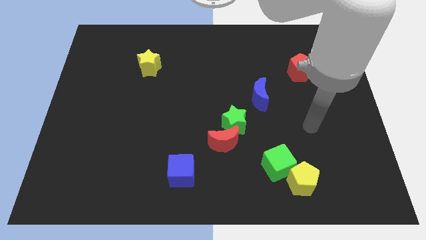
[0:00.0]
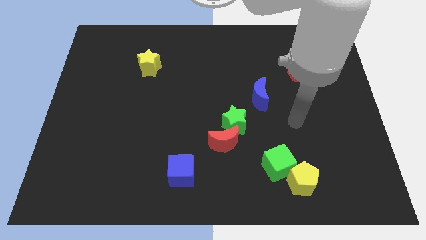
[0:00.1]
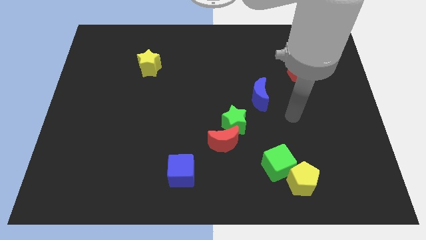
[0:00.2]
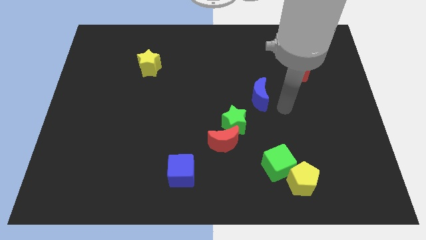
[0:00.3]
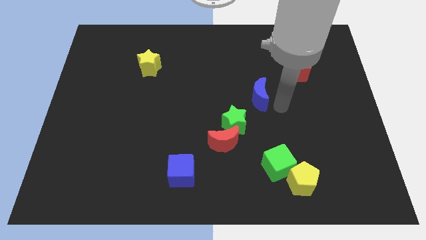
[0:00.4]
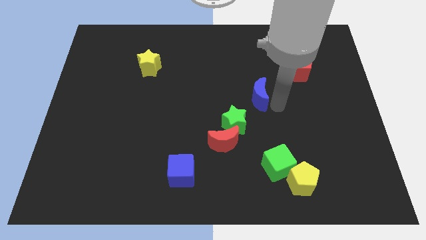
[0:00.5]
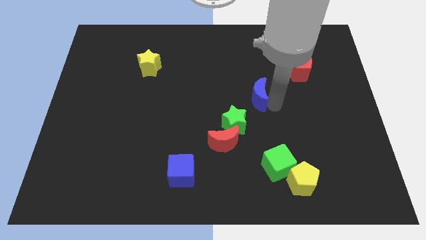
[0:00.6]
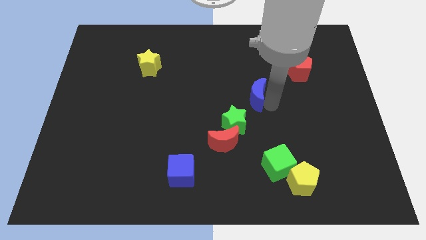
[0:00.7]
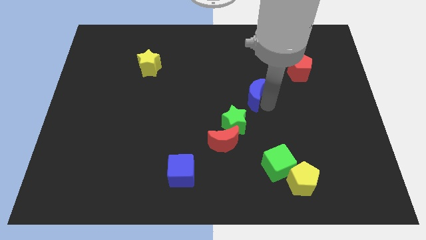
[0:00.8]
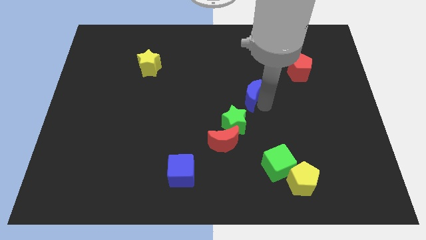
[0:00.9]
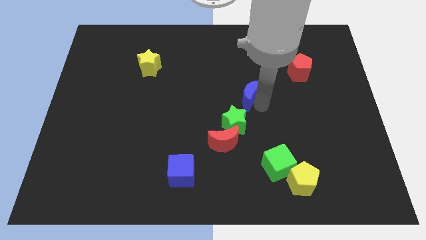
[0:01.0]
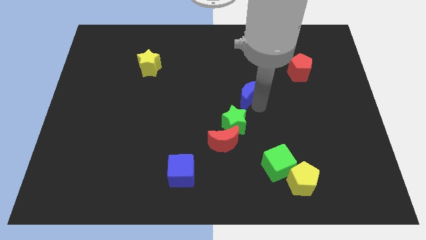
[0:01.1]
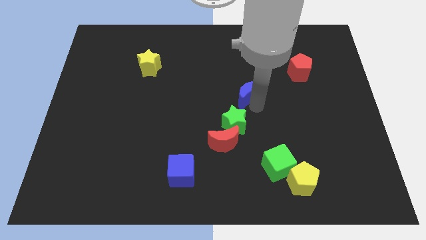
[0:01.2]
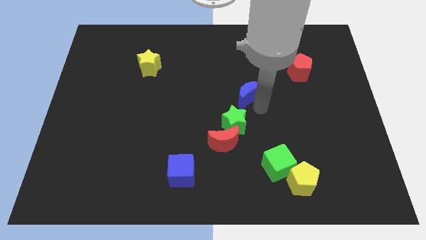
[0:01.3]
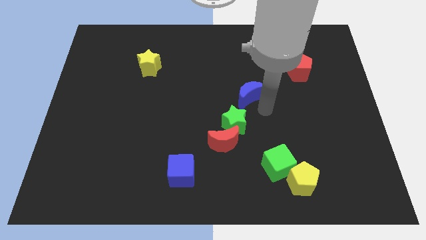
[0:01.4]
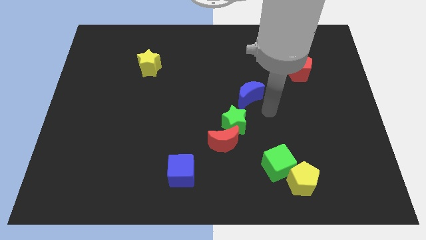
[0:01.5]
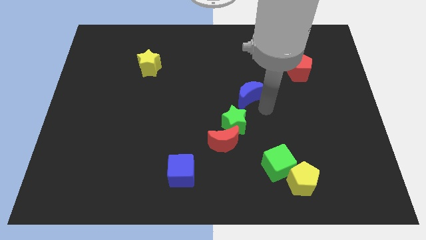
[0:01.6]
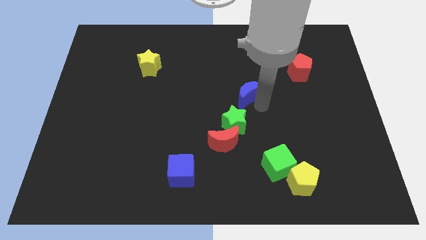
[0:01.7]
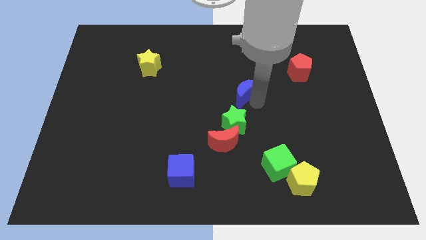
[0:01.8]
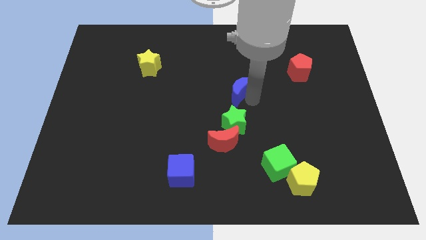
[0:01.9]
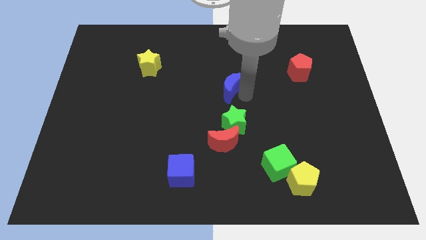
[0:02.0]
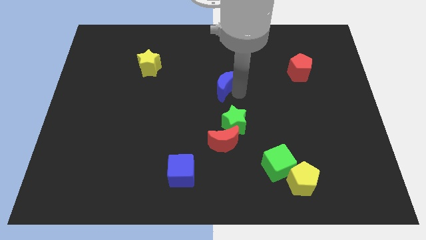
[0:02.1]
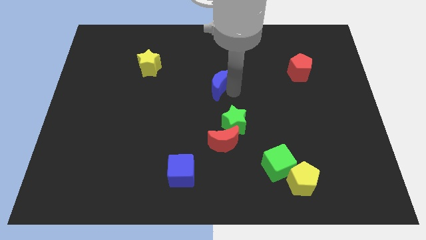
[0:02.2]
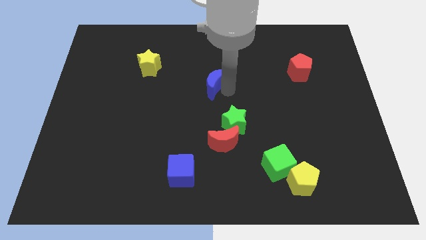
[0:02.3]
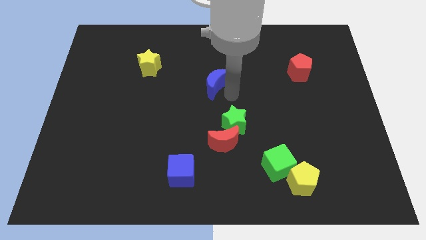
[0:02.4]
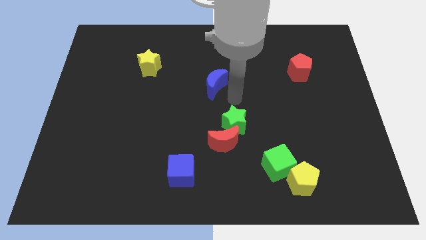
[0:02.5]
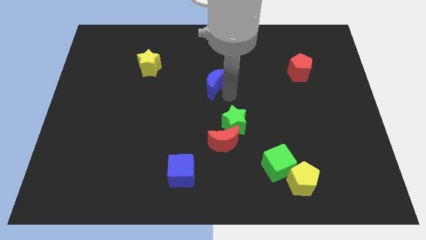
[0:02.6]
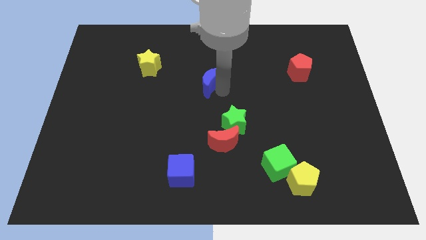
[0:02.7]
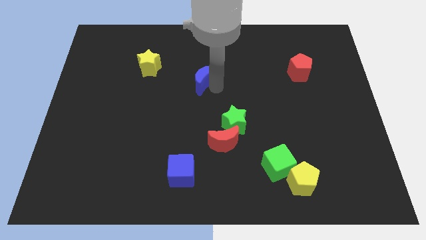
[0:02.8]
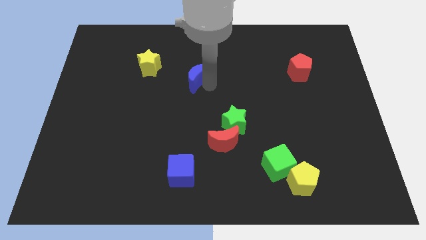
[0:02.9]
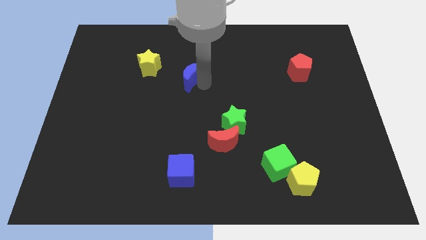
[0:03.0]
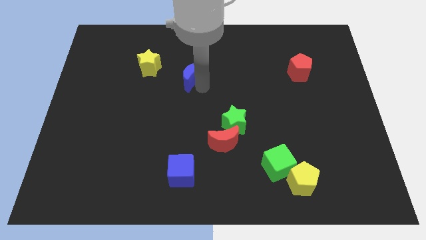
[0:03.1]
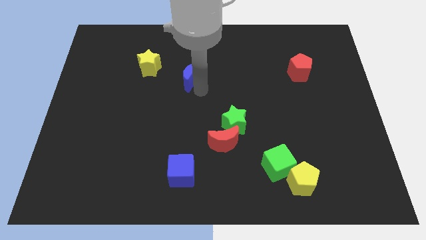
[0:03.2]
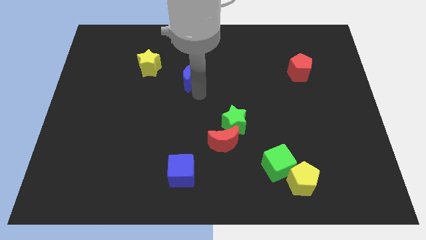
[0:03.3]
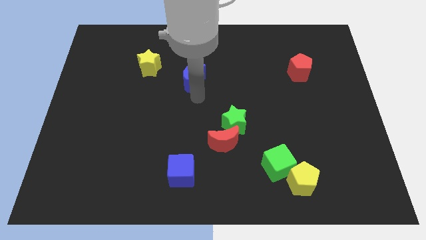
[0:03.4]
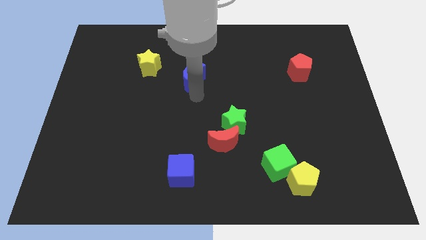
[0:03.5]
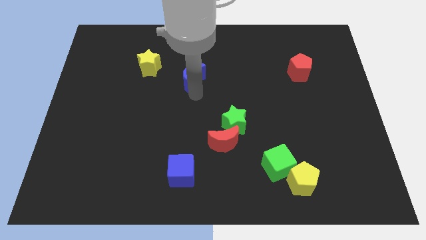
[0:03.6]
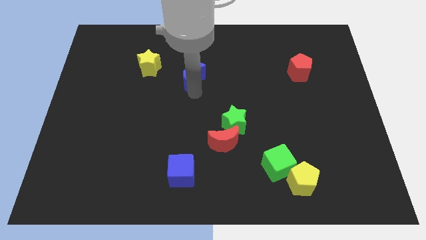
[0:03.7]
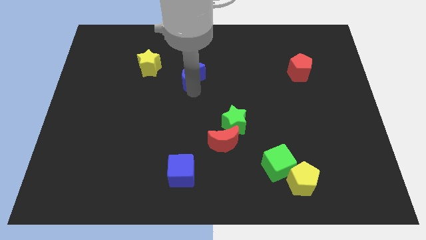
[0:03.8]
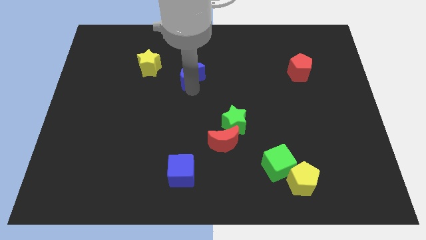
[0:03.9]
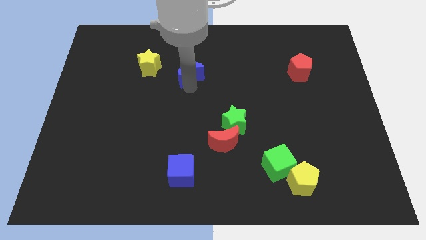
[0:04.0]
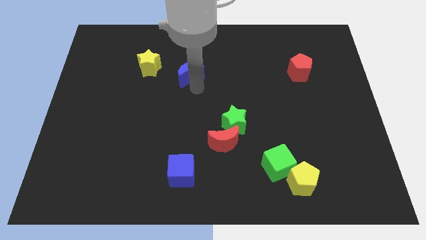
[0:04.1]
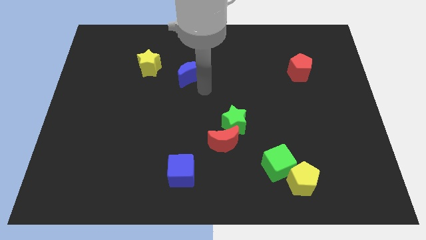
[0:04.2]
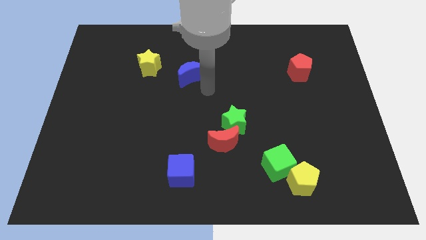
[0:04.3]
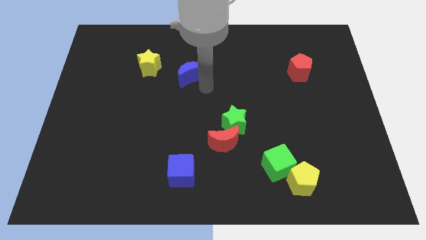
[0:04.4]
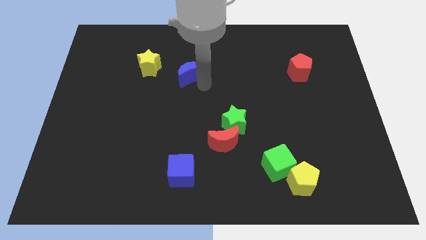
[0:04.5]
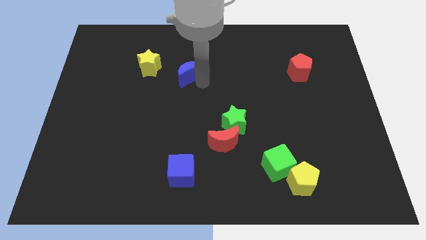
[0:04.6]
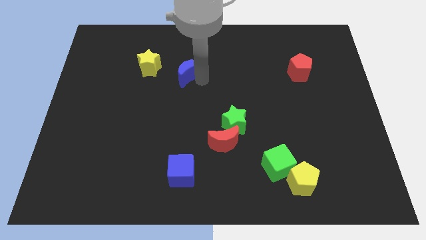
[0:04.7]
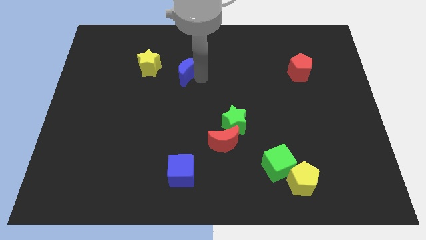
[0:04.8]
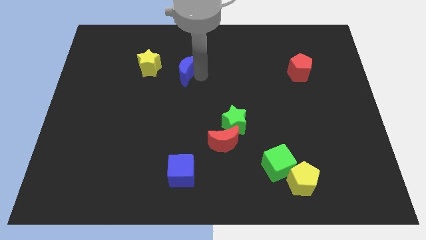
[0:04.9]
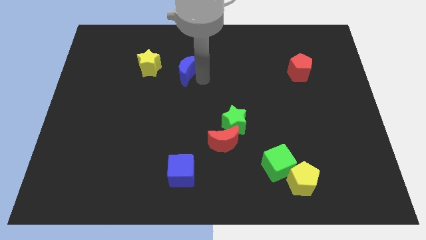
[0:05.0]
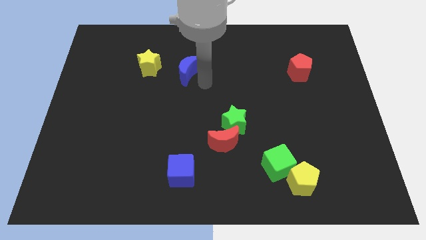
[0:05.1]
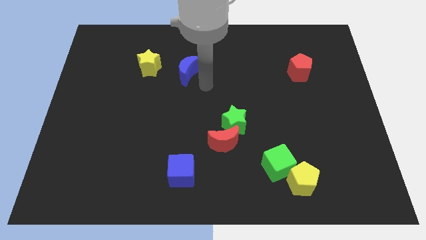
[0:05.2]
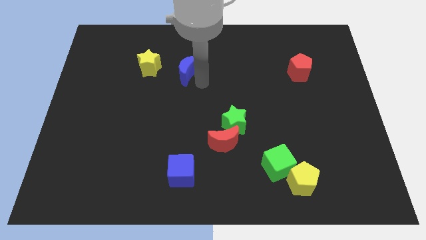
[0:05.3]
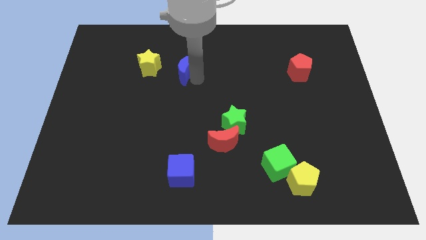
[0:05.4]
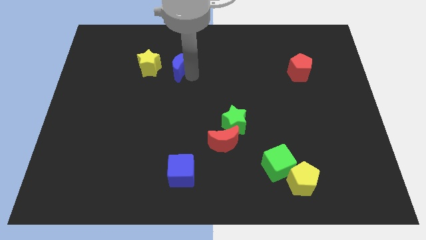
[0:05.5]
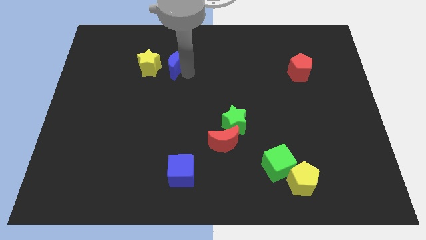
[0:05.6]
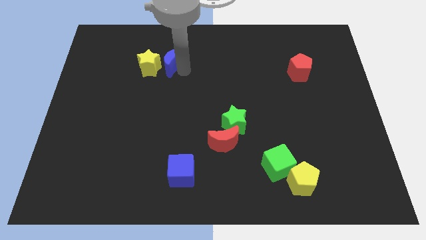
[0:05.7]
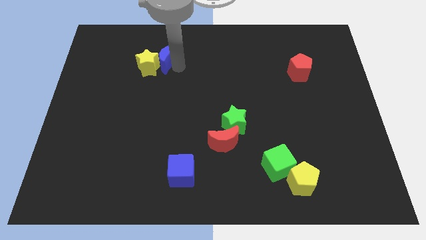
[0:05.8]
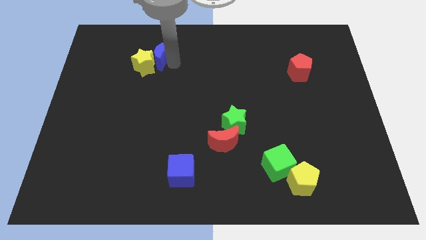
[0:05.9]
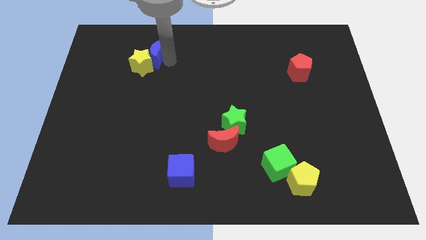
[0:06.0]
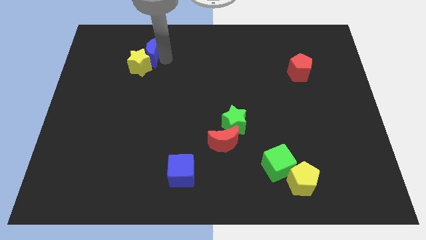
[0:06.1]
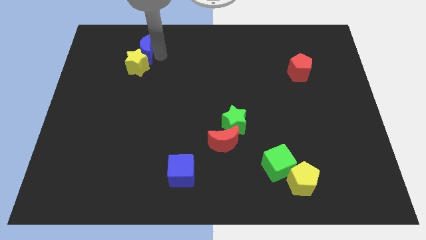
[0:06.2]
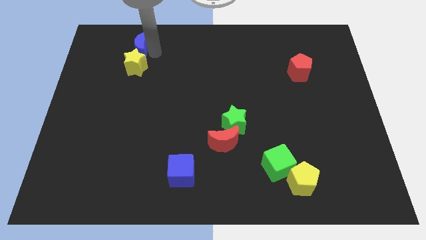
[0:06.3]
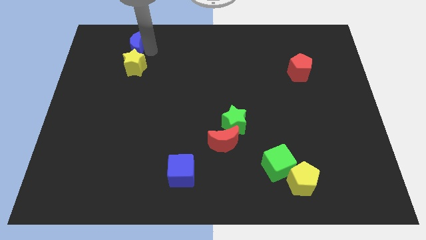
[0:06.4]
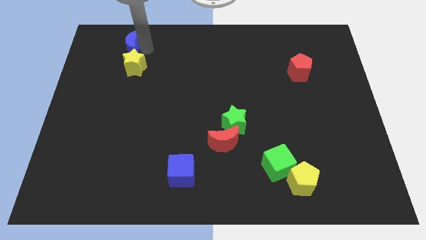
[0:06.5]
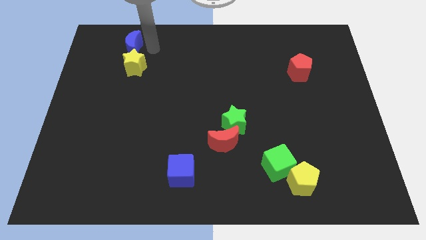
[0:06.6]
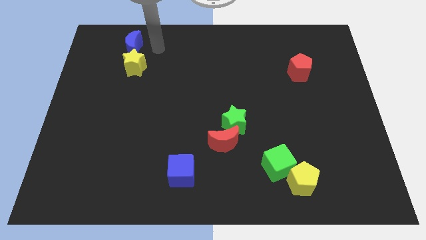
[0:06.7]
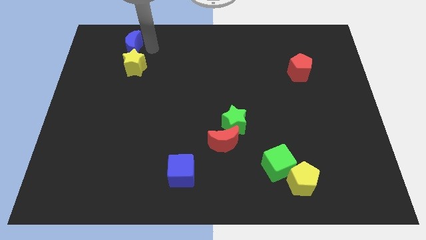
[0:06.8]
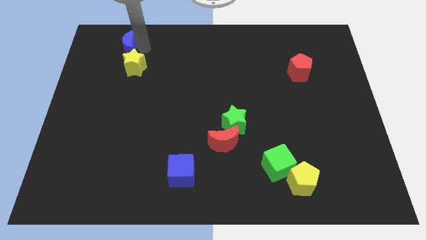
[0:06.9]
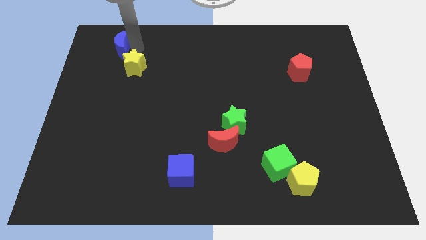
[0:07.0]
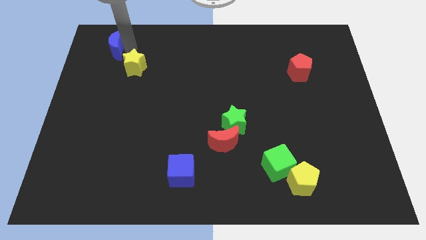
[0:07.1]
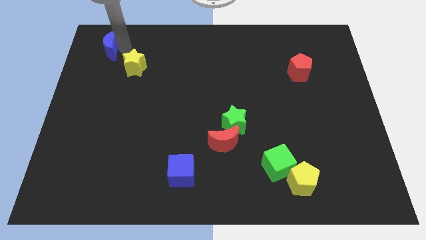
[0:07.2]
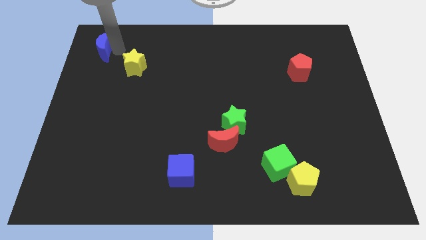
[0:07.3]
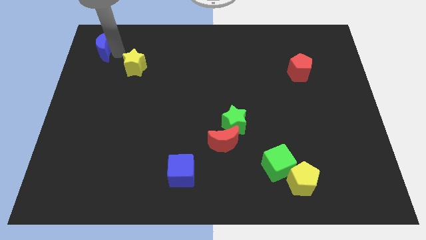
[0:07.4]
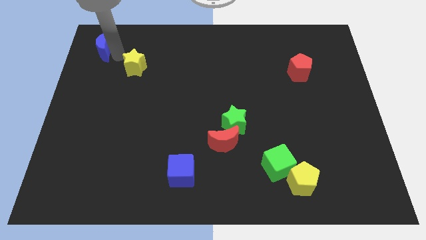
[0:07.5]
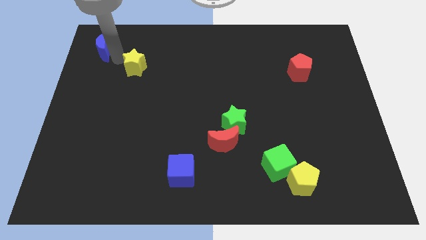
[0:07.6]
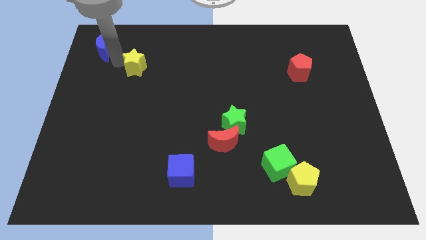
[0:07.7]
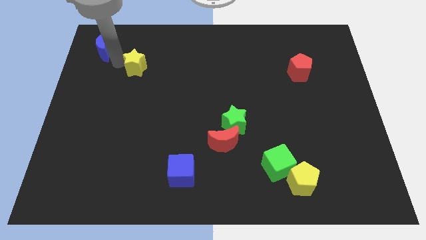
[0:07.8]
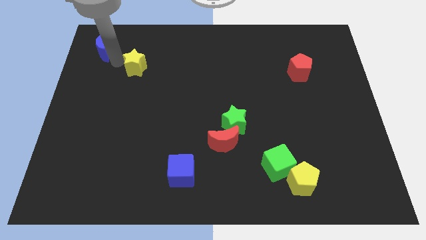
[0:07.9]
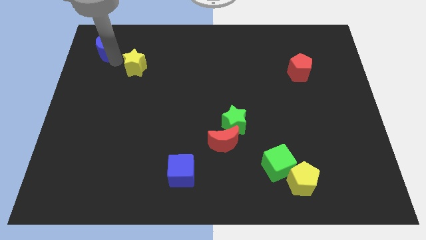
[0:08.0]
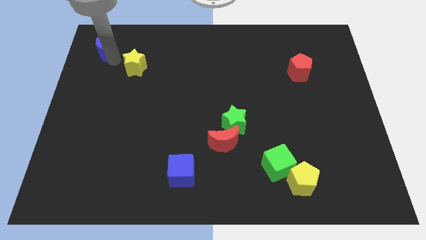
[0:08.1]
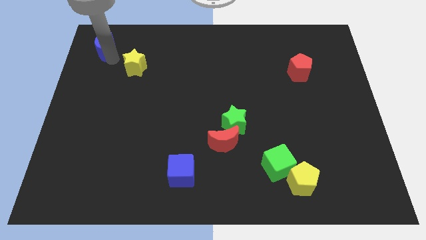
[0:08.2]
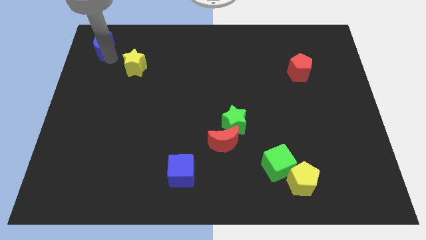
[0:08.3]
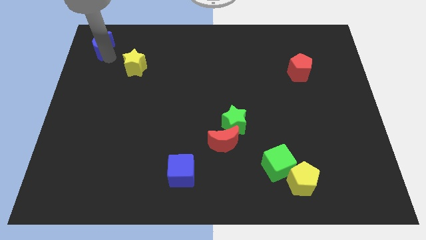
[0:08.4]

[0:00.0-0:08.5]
slide the blue moon to the top left
